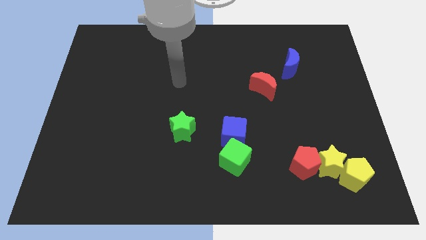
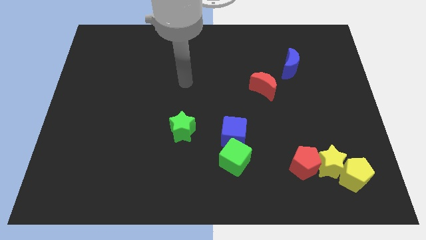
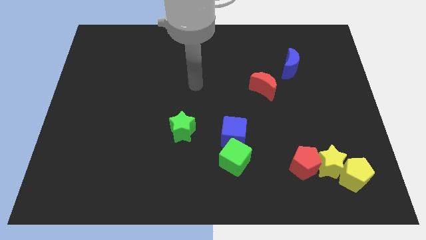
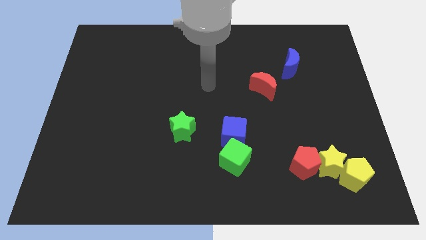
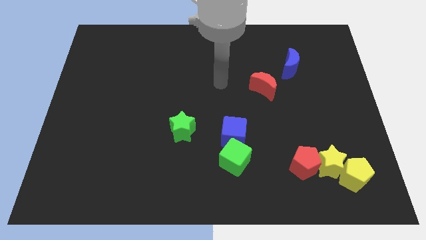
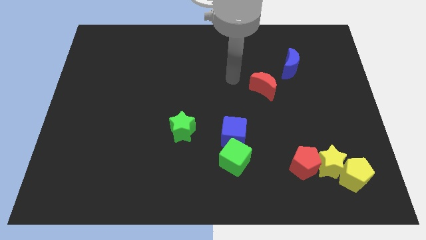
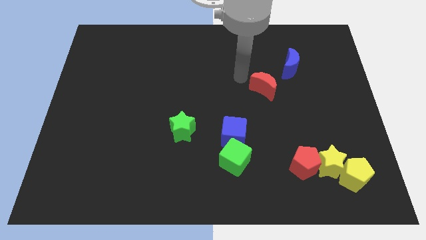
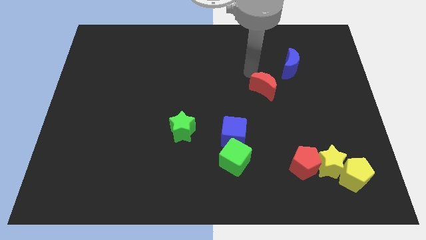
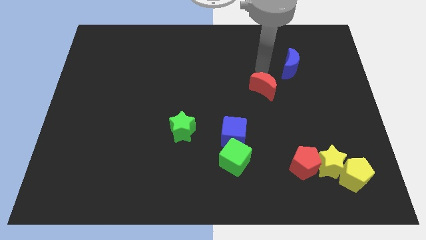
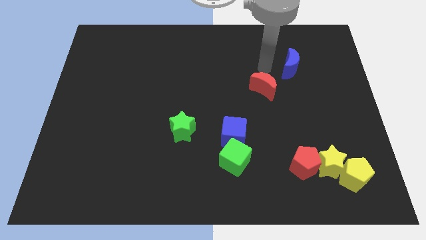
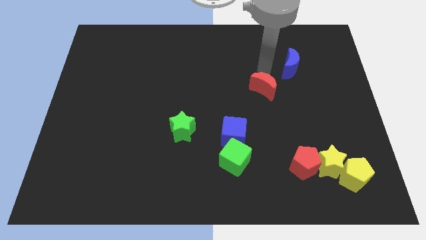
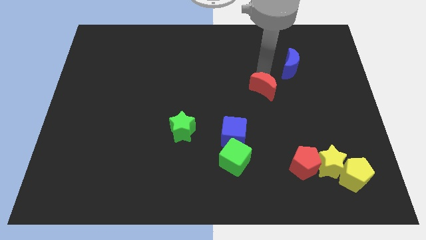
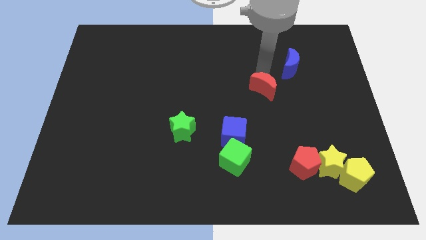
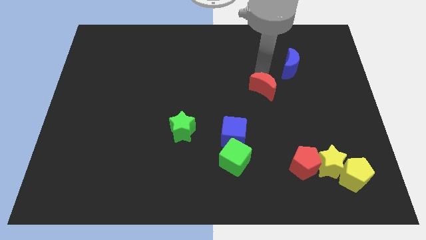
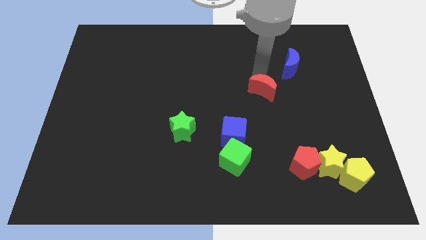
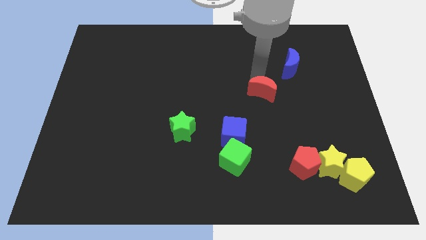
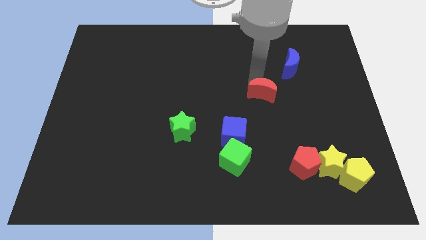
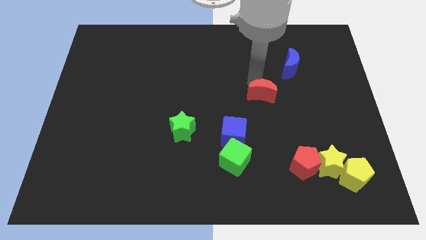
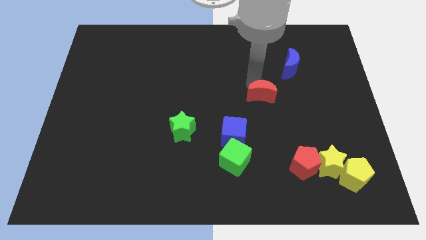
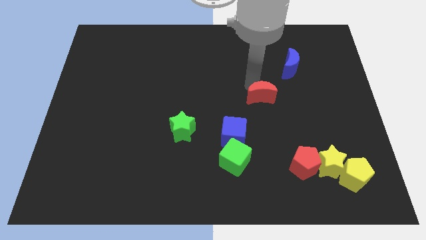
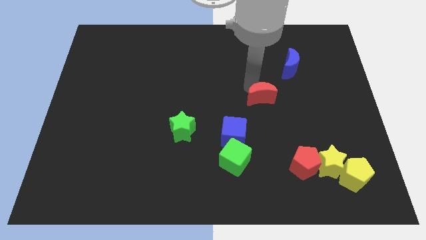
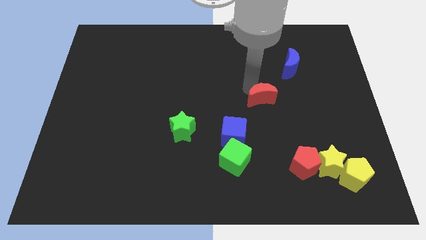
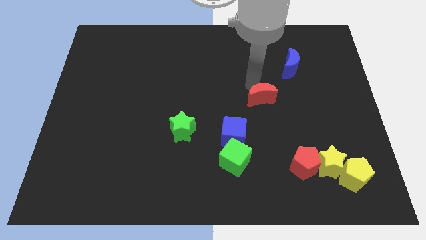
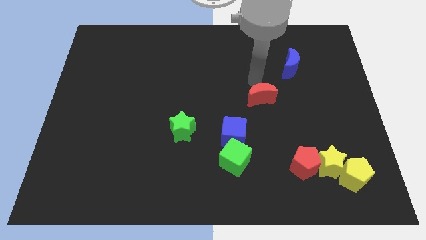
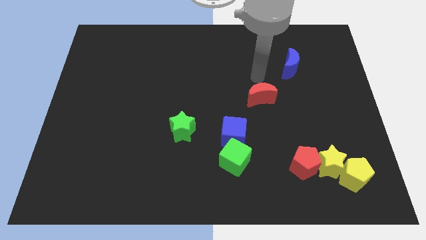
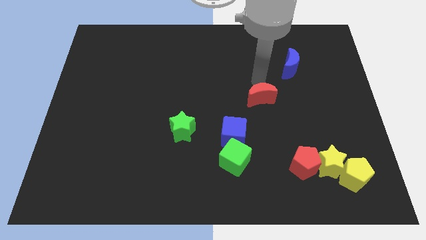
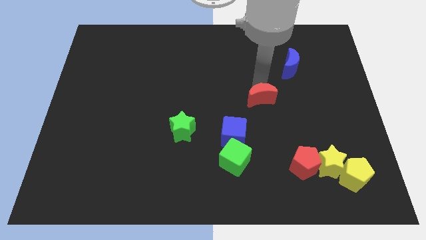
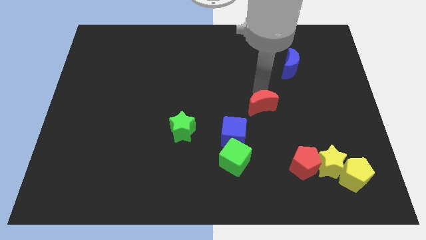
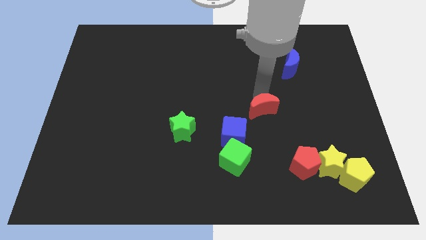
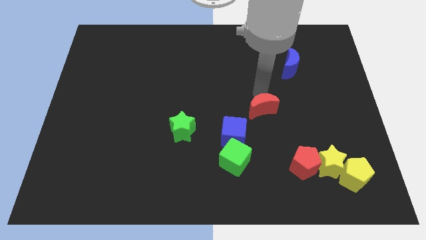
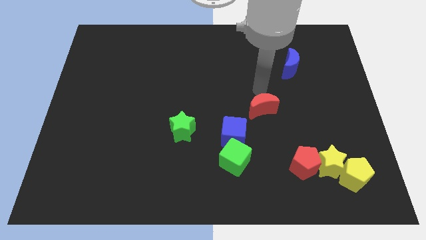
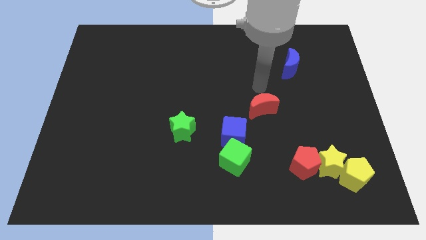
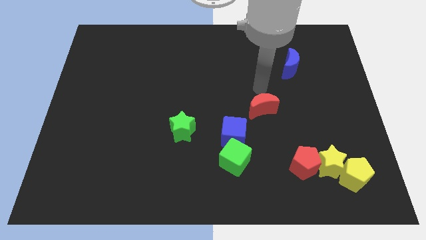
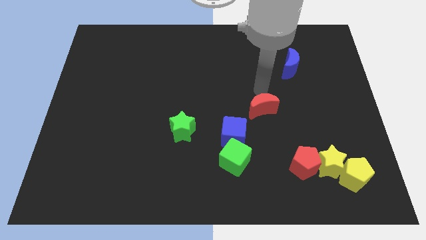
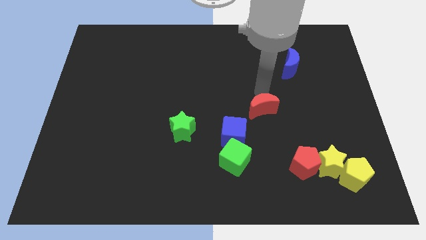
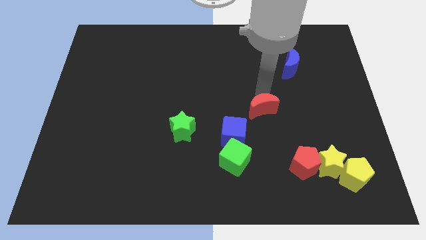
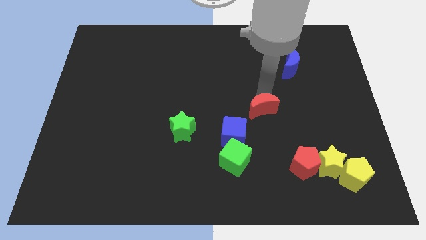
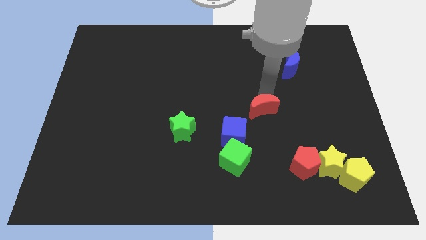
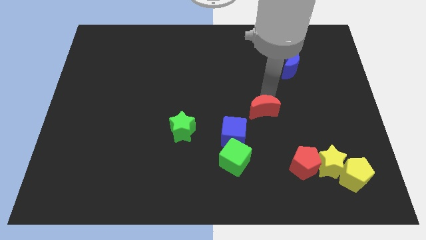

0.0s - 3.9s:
push the red moon downwards somewhat

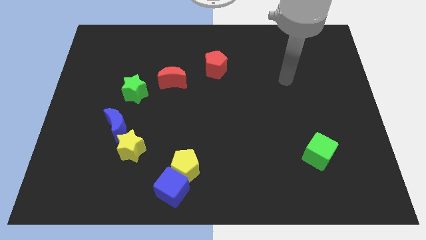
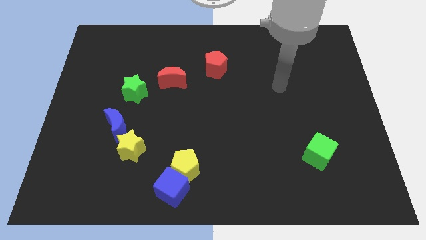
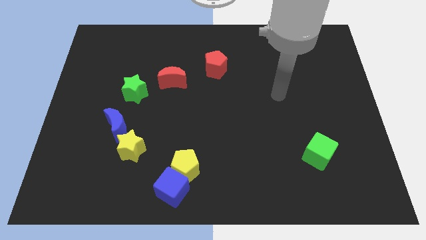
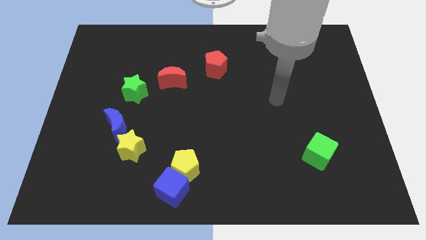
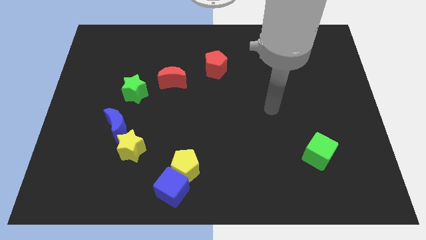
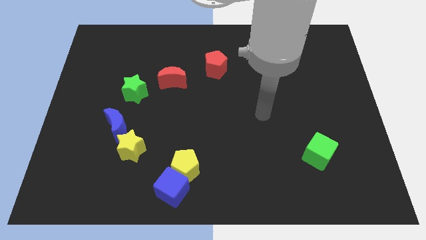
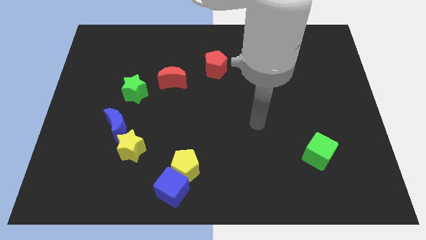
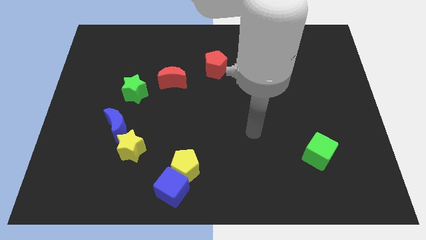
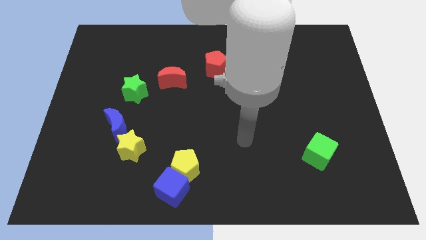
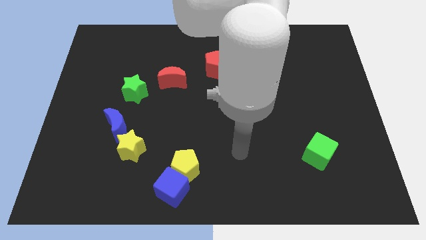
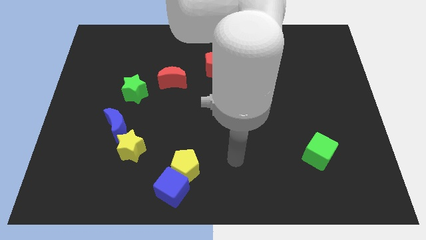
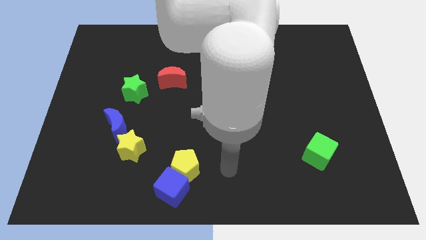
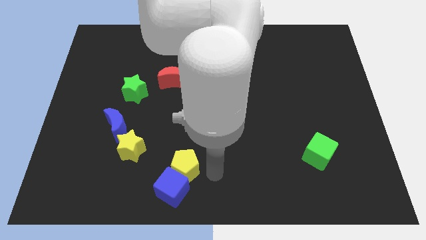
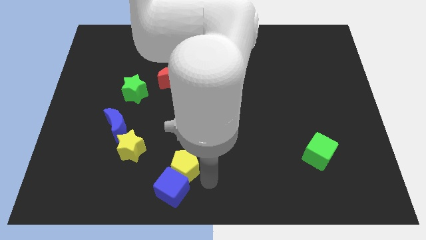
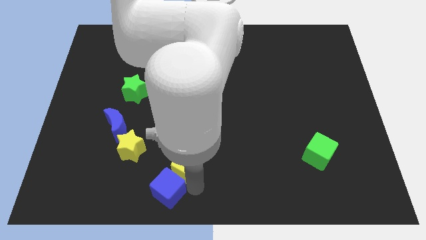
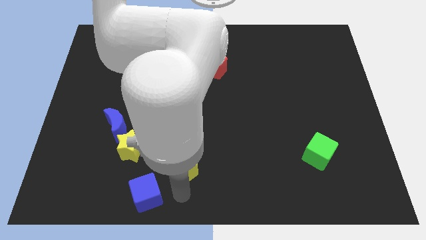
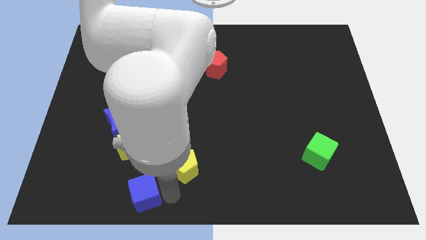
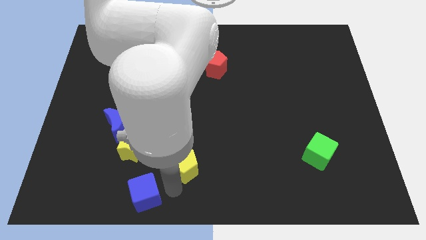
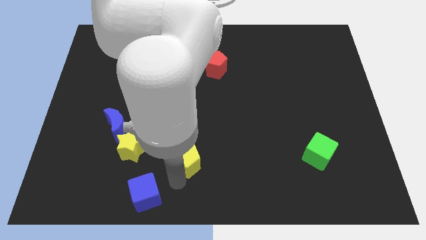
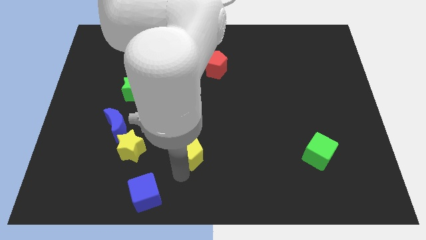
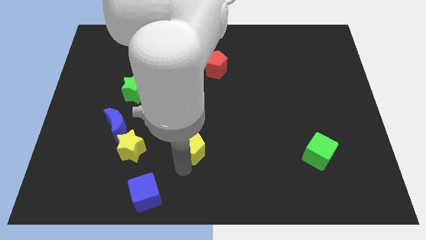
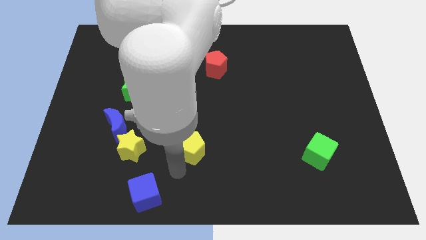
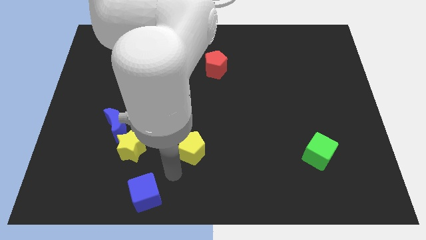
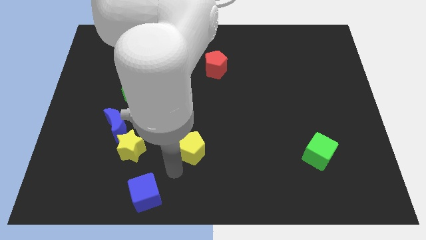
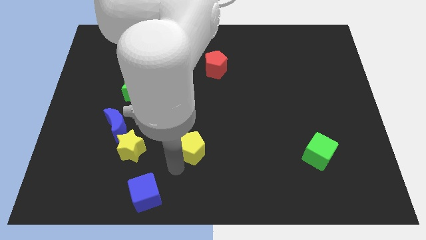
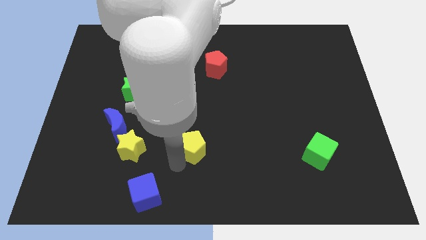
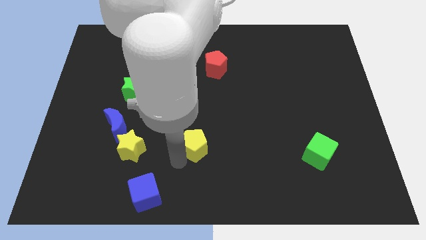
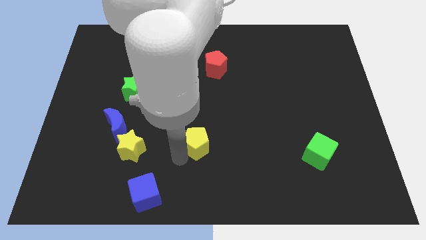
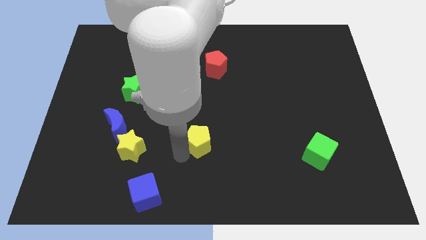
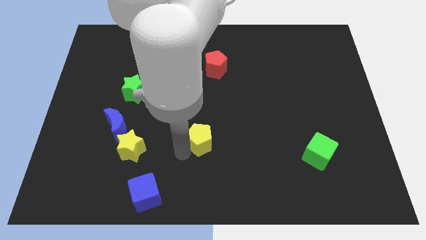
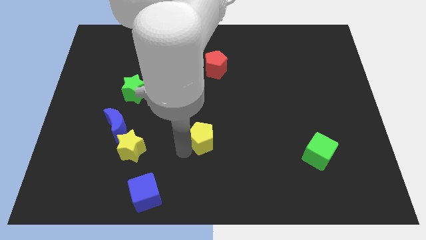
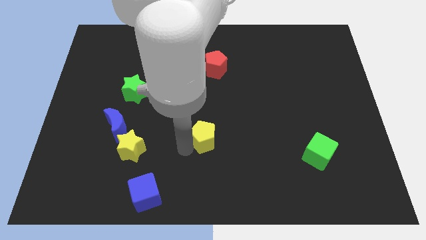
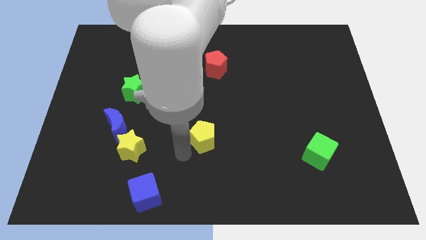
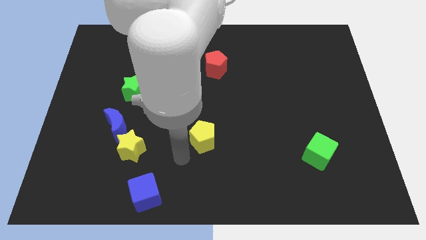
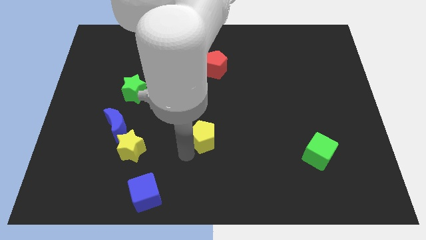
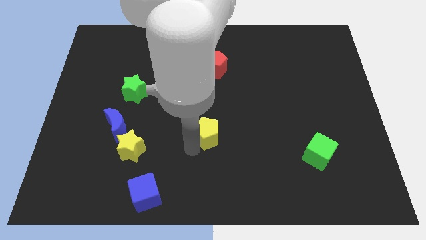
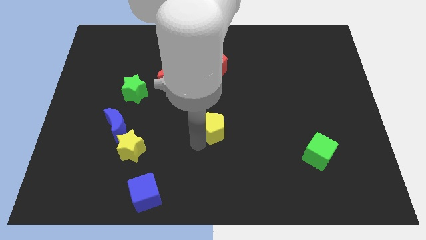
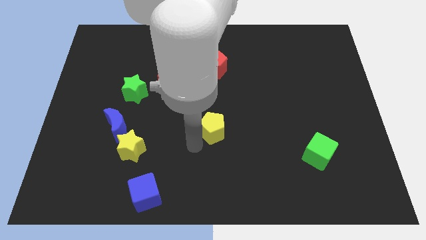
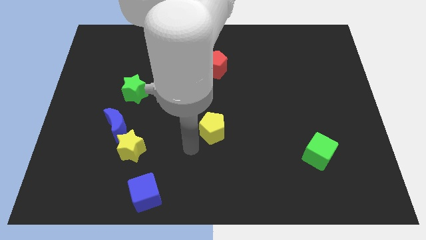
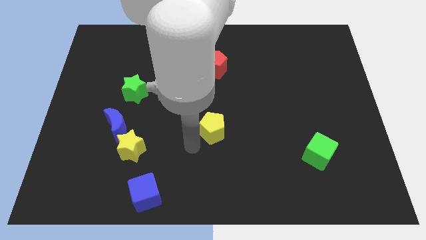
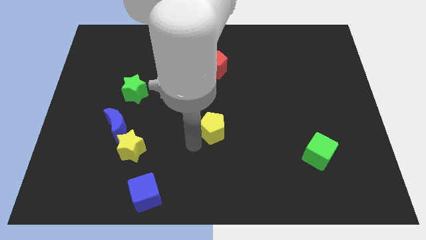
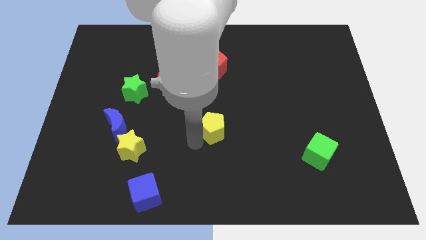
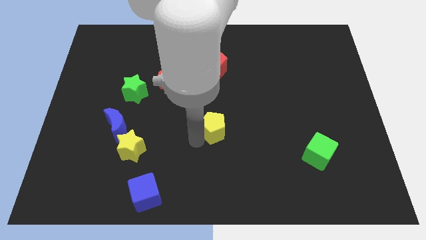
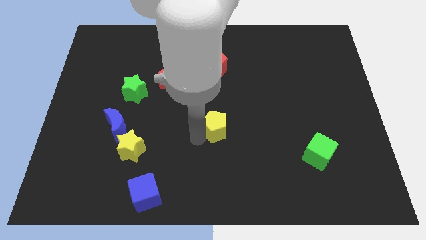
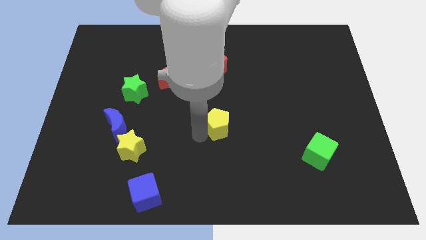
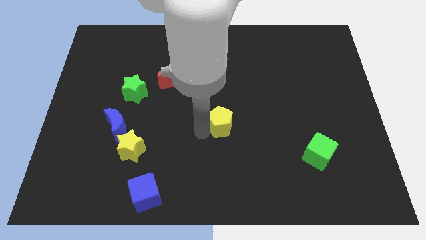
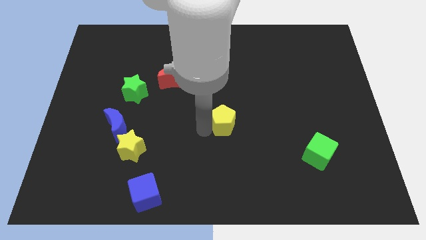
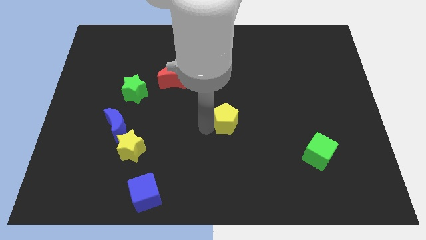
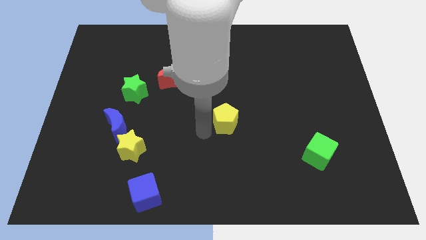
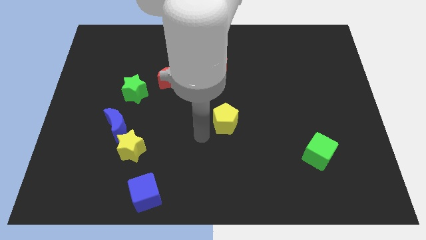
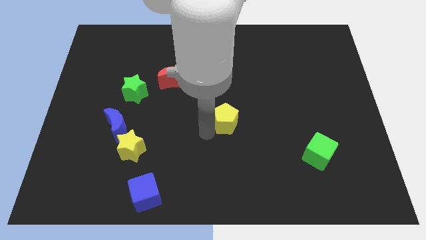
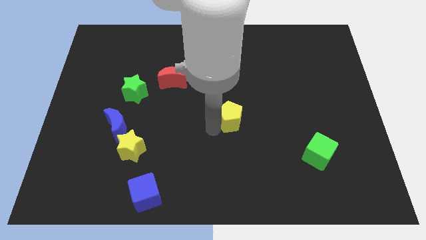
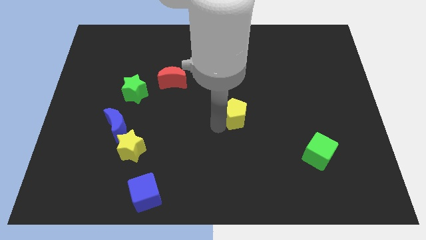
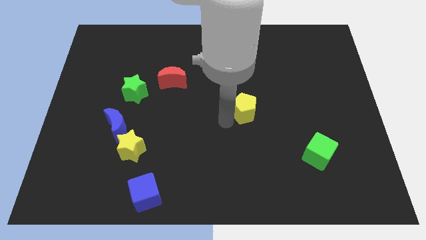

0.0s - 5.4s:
push the yellow pentagon diagonally upwards and to the right
